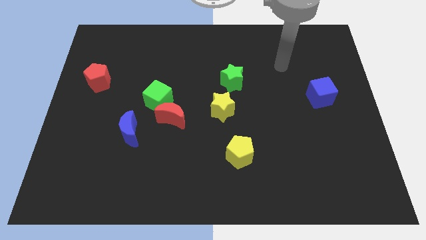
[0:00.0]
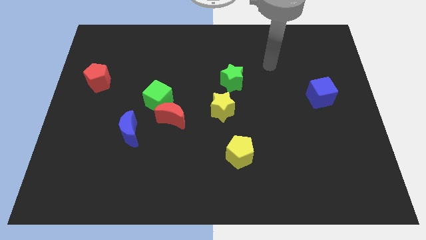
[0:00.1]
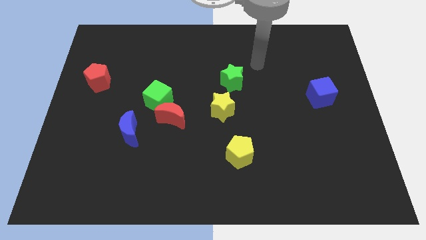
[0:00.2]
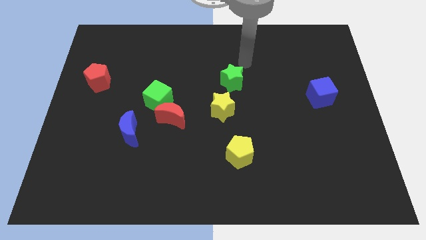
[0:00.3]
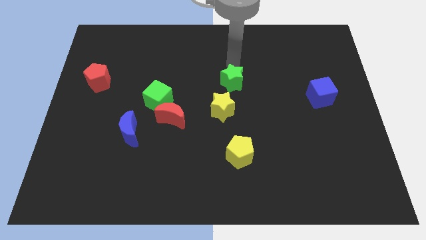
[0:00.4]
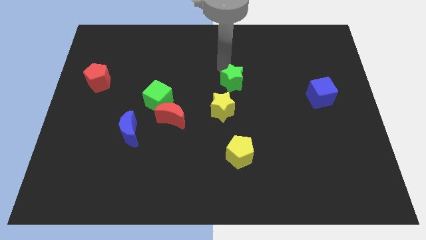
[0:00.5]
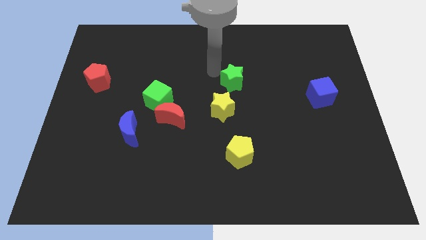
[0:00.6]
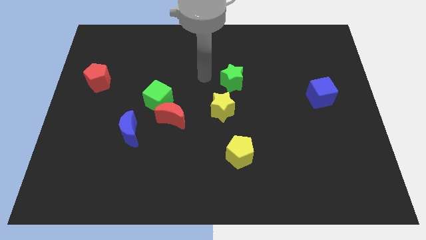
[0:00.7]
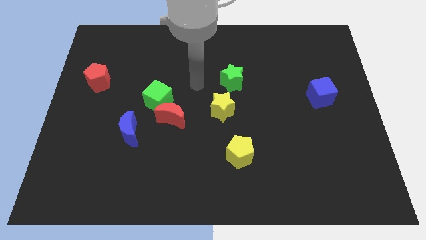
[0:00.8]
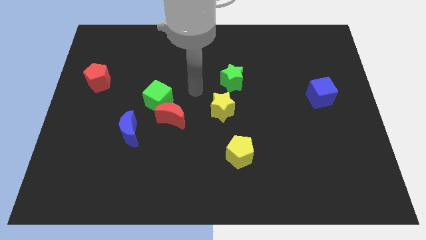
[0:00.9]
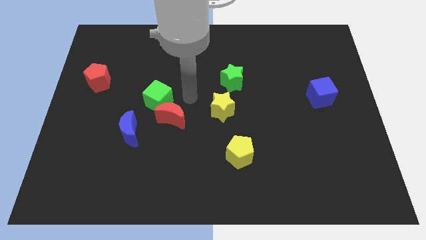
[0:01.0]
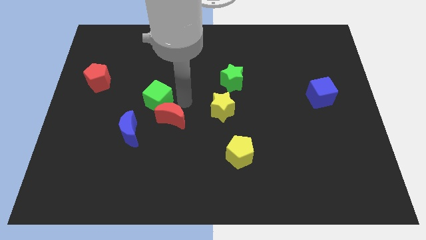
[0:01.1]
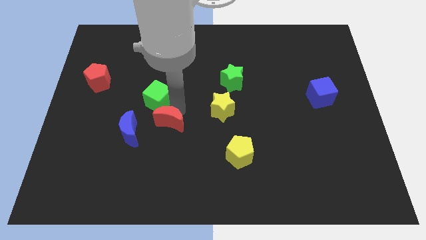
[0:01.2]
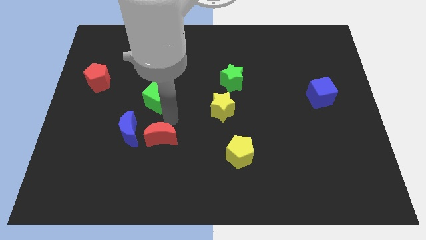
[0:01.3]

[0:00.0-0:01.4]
separate the green cube from the red moon

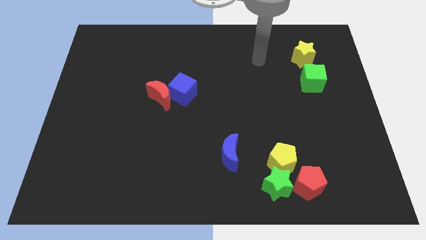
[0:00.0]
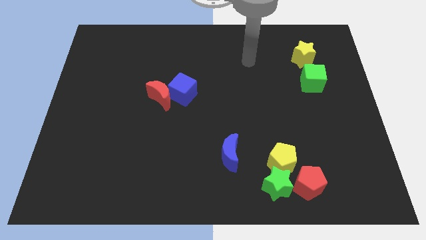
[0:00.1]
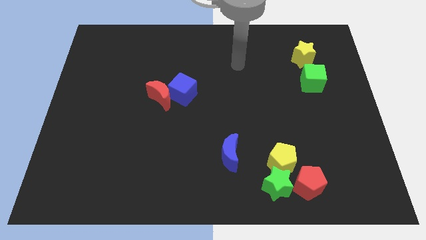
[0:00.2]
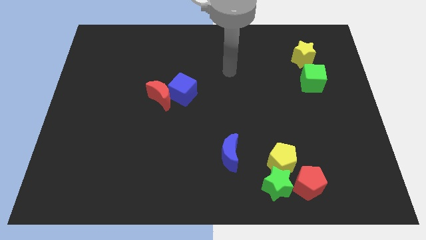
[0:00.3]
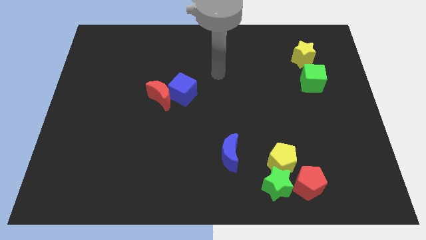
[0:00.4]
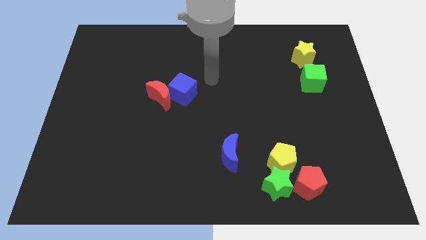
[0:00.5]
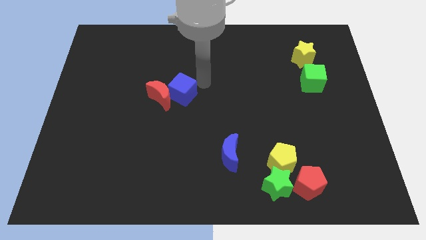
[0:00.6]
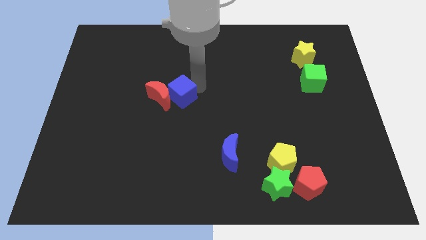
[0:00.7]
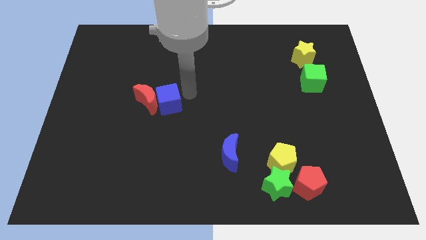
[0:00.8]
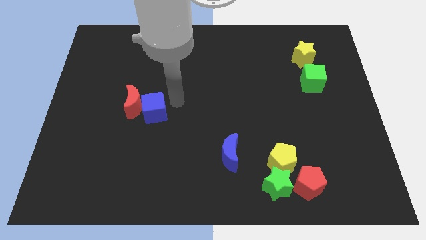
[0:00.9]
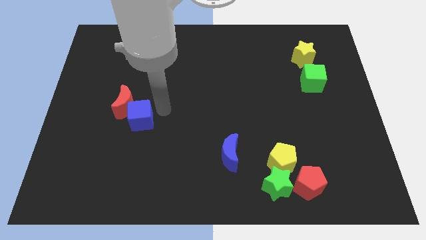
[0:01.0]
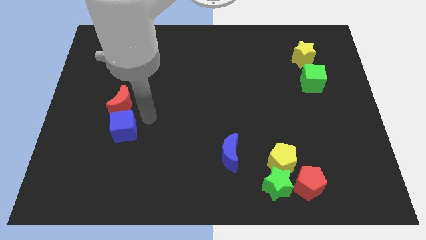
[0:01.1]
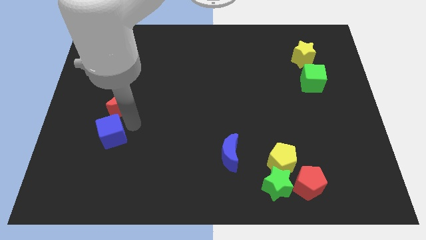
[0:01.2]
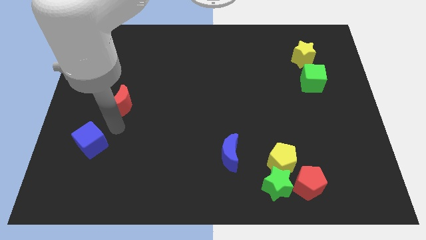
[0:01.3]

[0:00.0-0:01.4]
move the red moon away from the blue cube

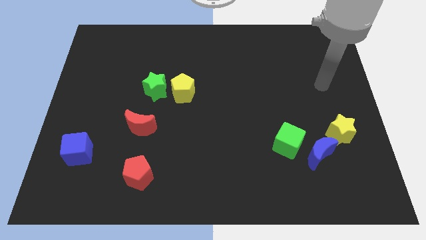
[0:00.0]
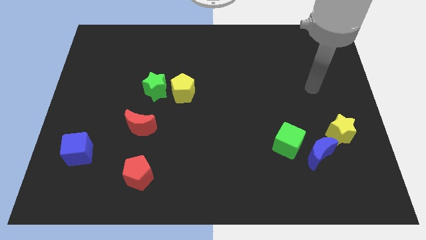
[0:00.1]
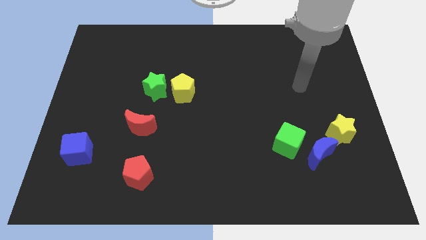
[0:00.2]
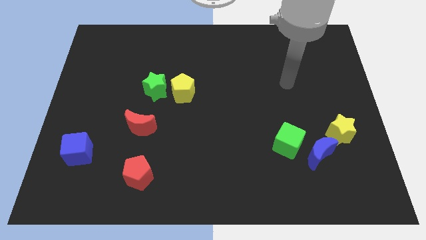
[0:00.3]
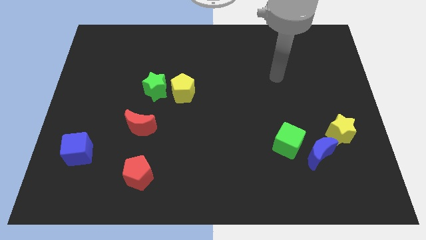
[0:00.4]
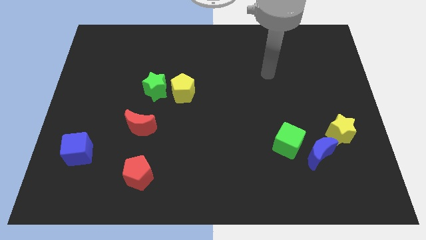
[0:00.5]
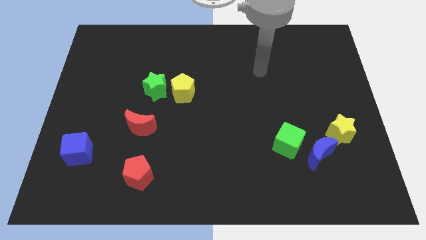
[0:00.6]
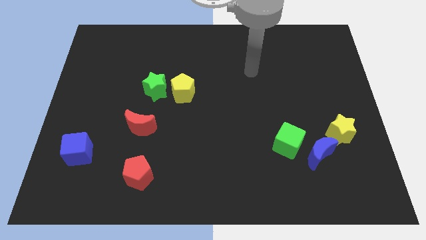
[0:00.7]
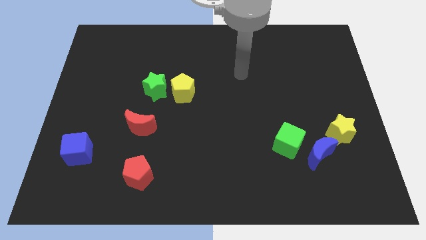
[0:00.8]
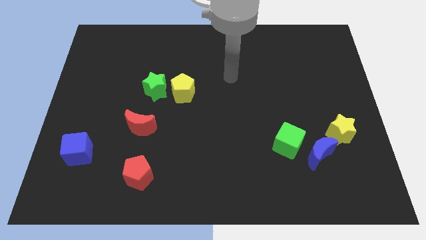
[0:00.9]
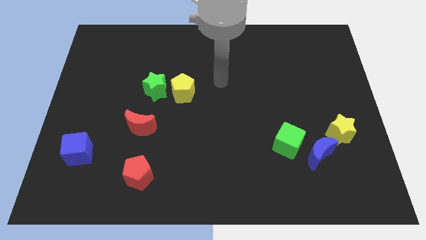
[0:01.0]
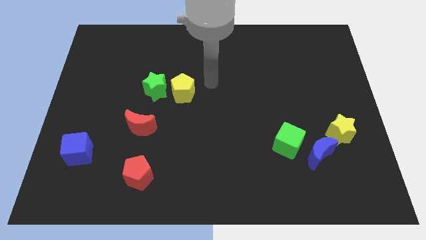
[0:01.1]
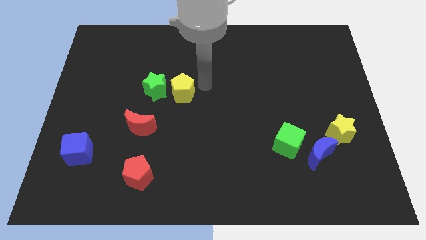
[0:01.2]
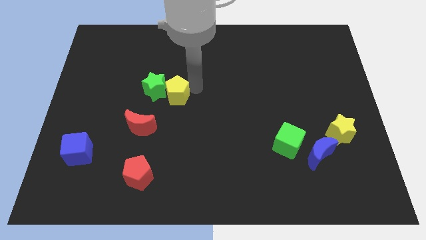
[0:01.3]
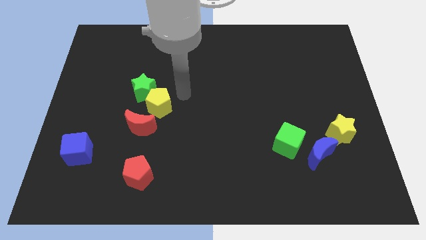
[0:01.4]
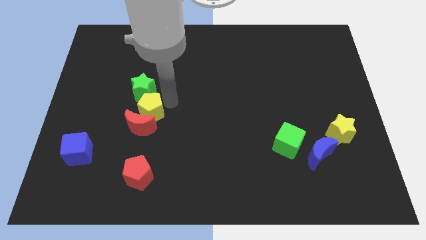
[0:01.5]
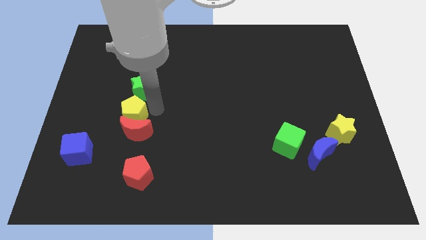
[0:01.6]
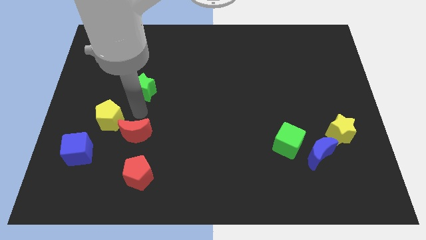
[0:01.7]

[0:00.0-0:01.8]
move the green star away from the yellow pentagon

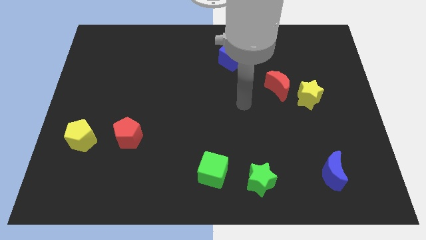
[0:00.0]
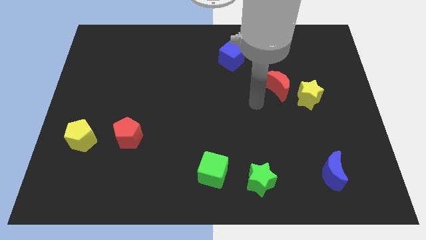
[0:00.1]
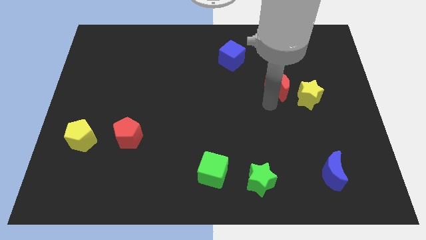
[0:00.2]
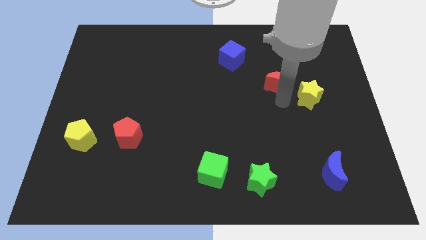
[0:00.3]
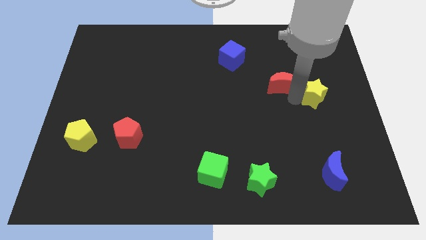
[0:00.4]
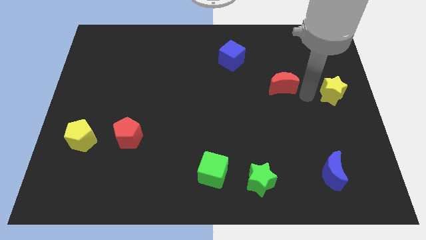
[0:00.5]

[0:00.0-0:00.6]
move the red moon away from the yellow star

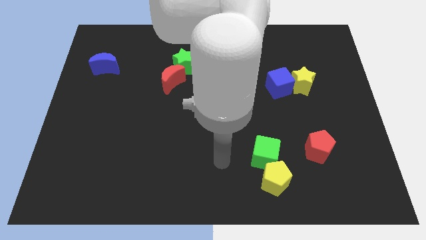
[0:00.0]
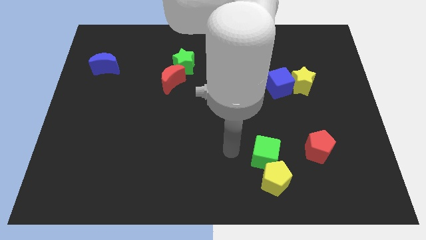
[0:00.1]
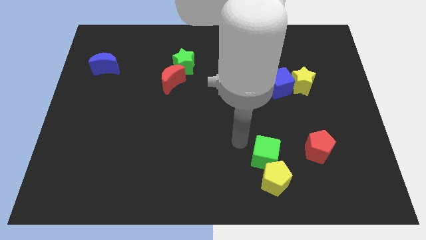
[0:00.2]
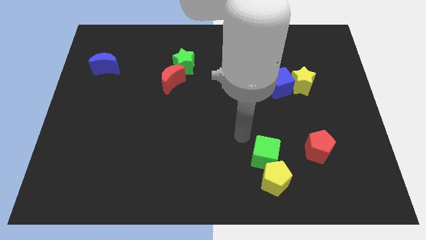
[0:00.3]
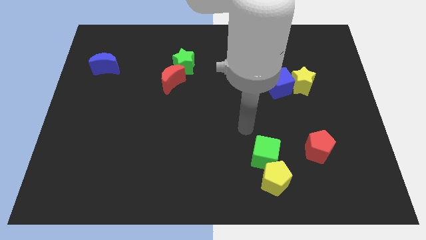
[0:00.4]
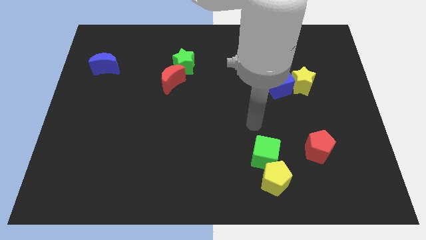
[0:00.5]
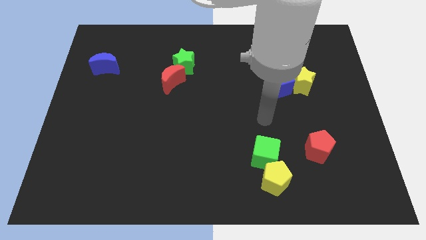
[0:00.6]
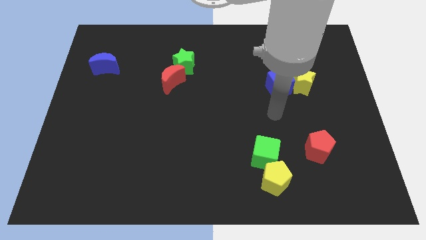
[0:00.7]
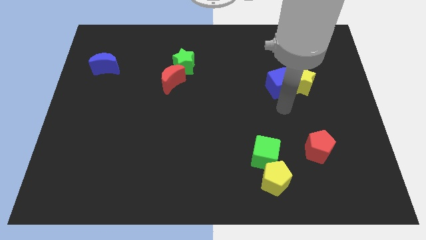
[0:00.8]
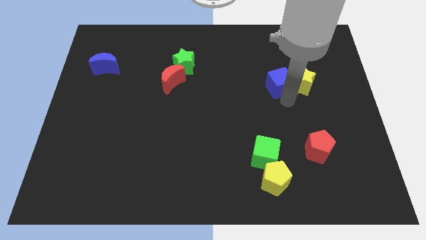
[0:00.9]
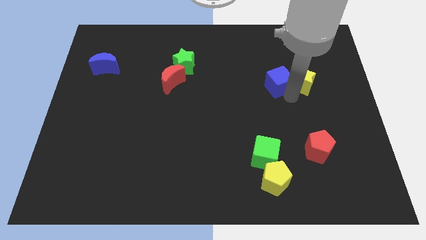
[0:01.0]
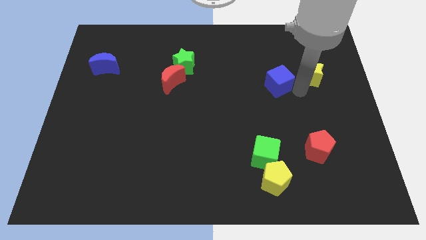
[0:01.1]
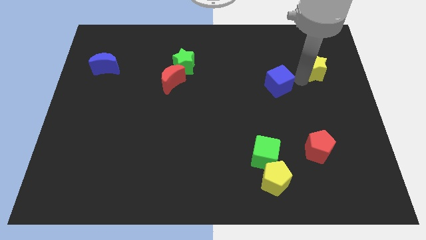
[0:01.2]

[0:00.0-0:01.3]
move the blue cube away from the yellow star

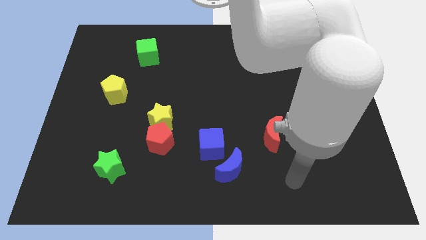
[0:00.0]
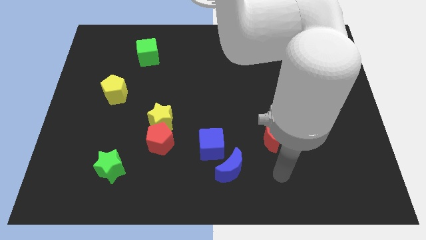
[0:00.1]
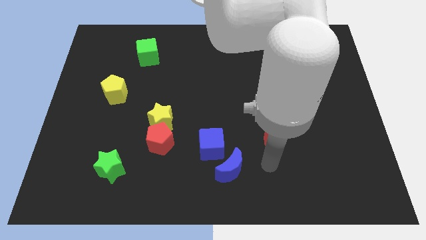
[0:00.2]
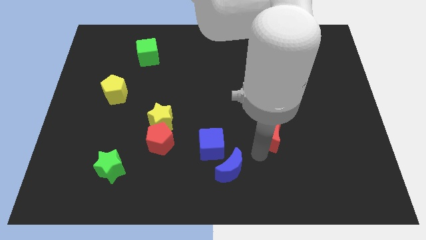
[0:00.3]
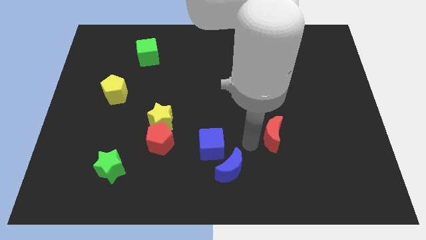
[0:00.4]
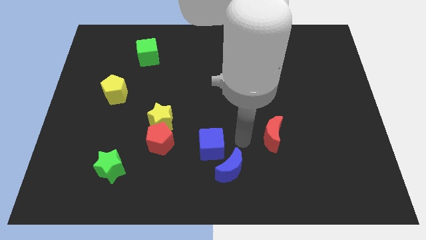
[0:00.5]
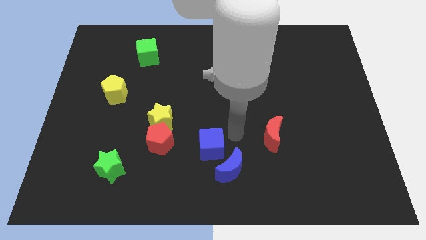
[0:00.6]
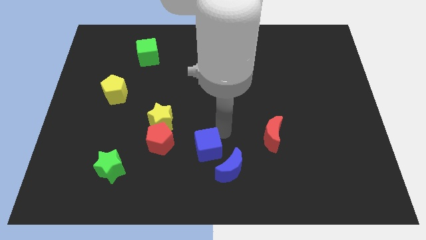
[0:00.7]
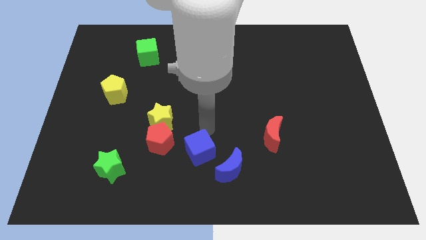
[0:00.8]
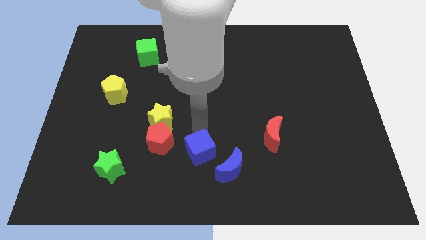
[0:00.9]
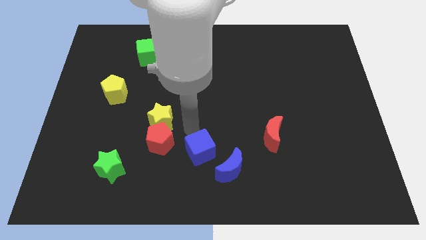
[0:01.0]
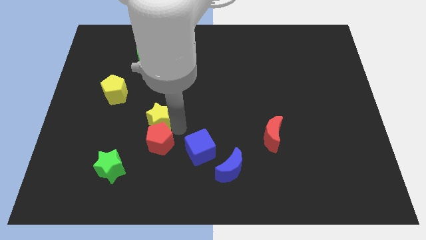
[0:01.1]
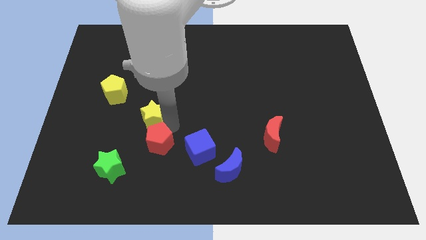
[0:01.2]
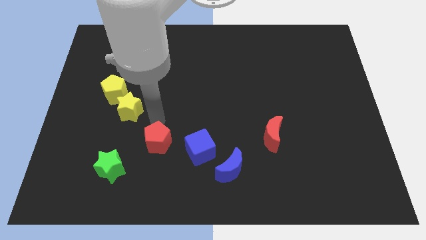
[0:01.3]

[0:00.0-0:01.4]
move the red pentagon away from the yellow star

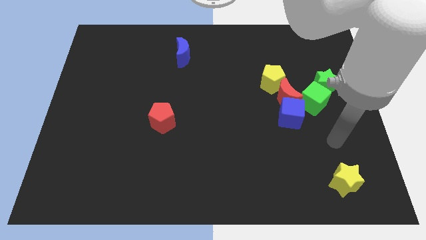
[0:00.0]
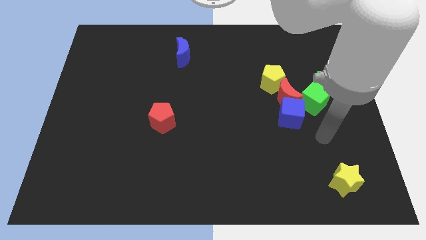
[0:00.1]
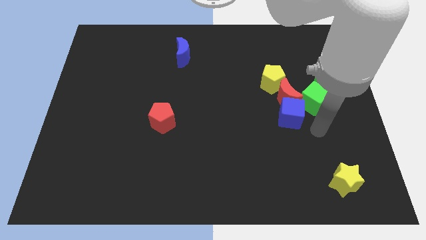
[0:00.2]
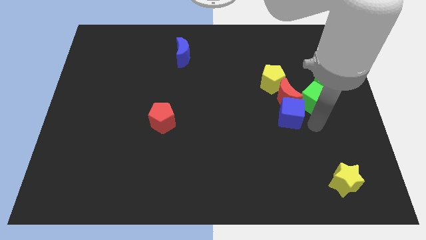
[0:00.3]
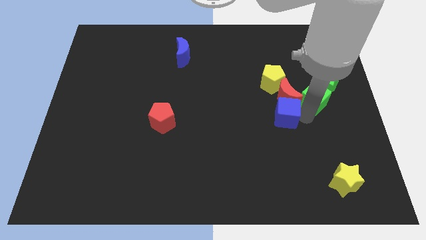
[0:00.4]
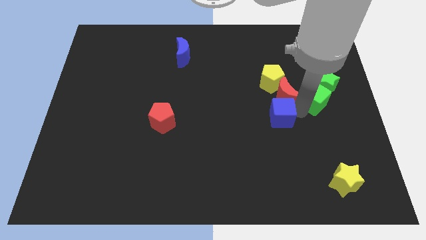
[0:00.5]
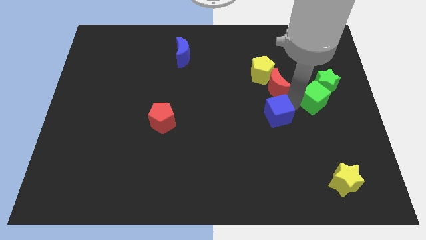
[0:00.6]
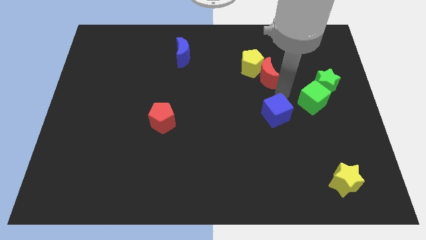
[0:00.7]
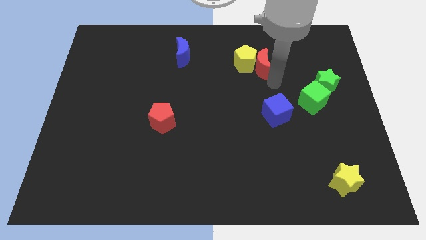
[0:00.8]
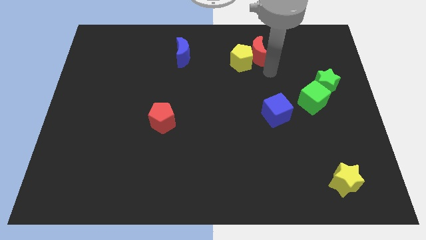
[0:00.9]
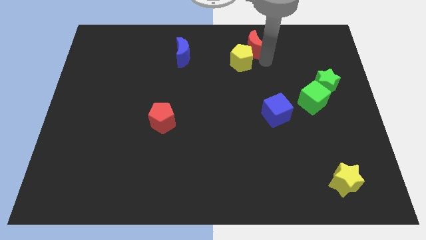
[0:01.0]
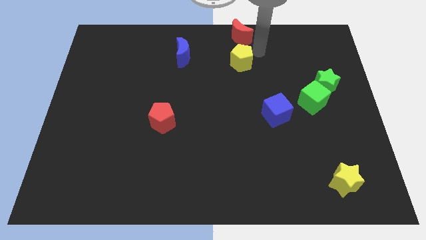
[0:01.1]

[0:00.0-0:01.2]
pull the yellow pentagon apart from the red moon
